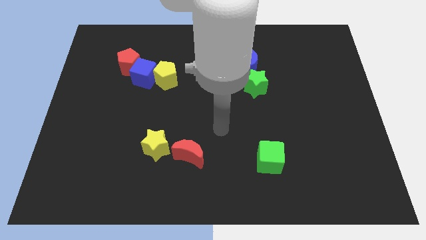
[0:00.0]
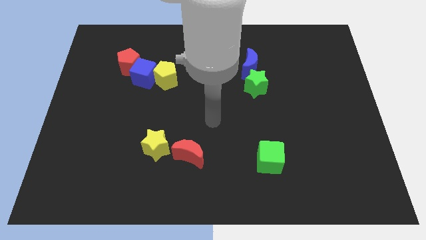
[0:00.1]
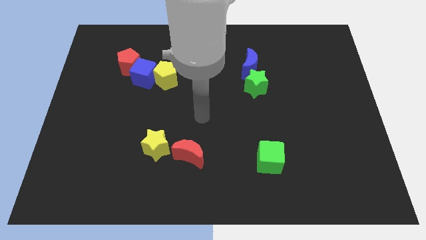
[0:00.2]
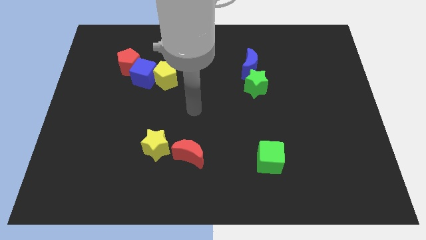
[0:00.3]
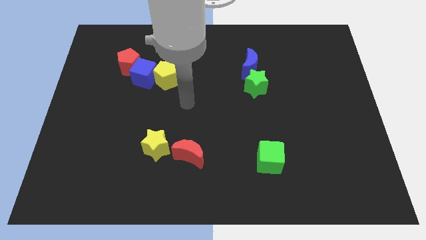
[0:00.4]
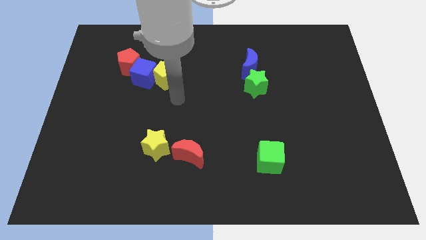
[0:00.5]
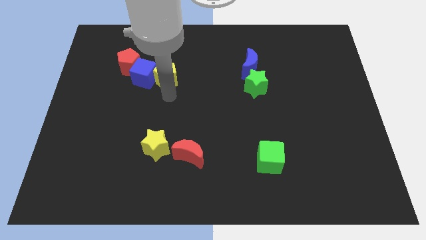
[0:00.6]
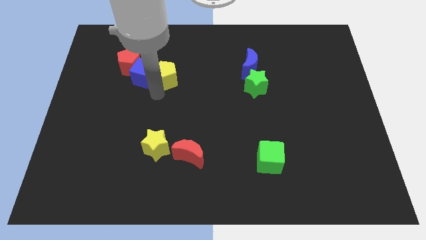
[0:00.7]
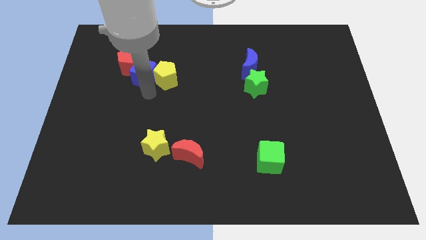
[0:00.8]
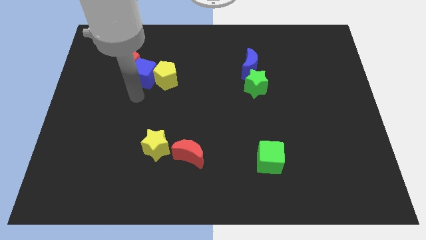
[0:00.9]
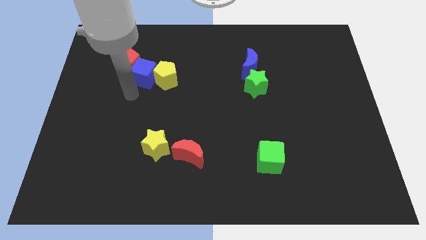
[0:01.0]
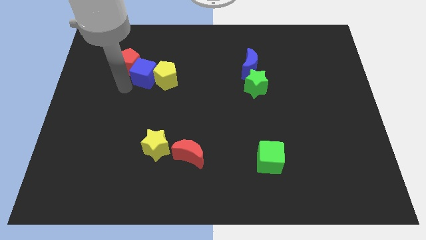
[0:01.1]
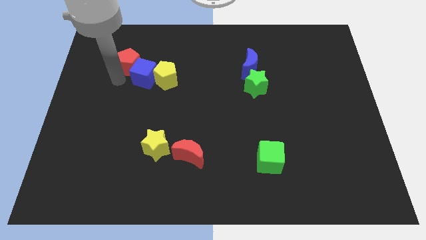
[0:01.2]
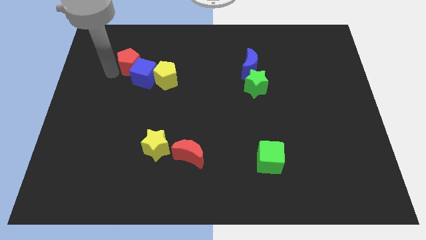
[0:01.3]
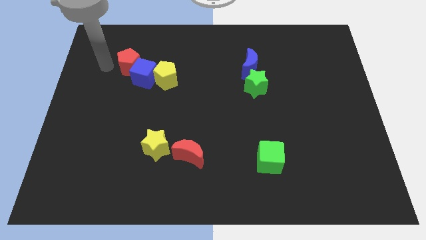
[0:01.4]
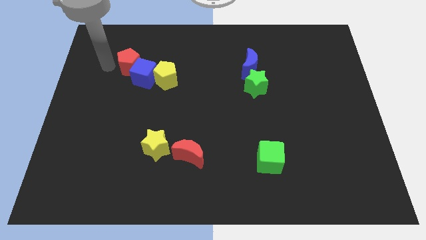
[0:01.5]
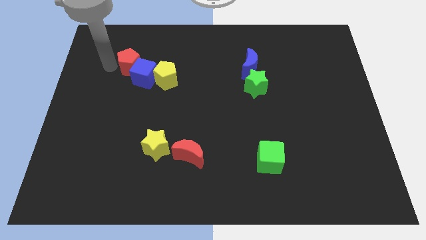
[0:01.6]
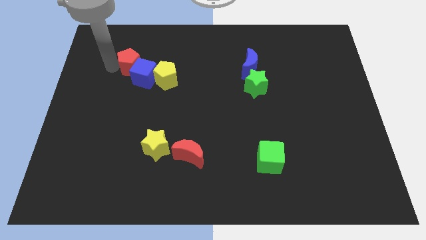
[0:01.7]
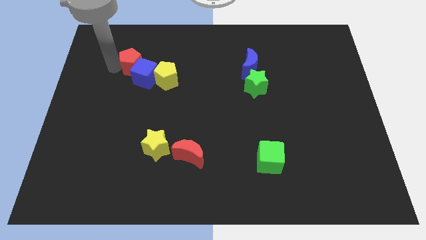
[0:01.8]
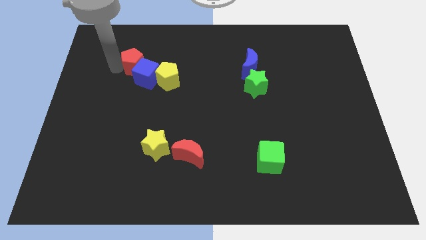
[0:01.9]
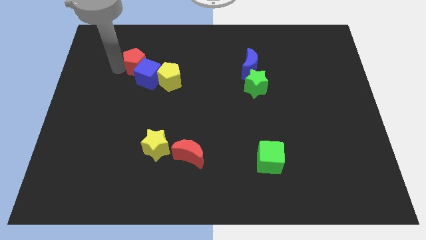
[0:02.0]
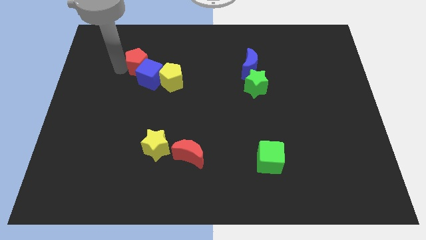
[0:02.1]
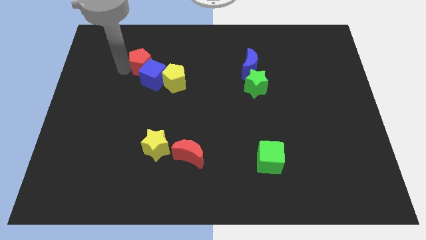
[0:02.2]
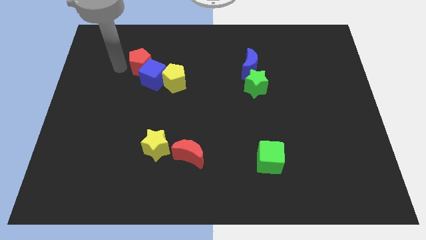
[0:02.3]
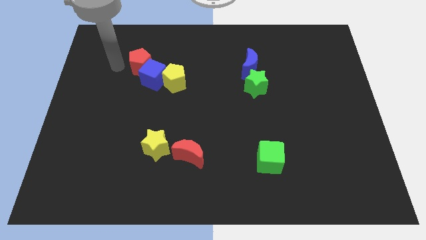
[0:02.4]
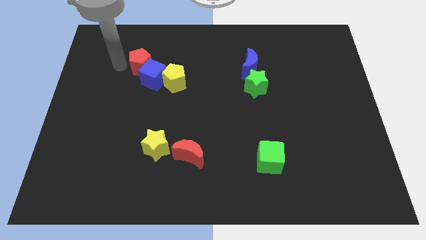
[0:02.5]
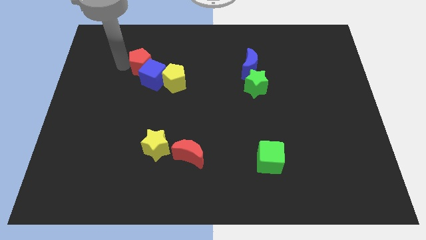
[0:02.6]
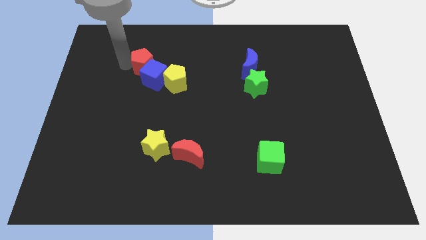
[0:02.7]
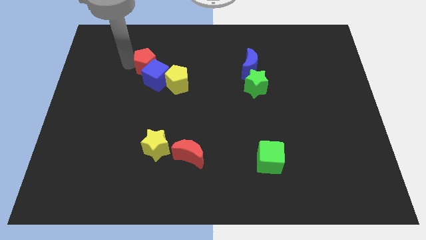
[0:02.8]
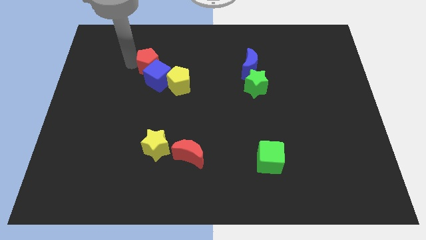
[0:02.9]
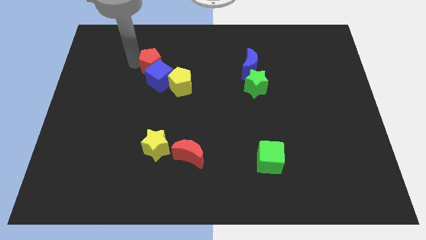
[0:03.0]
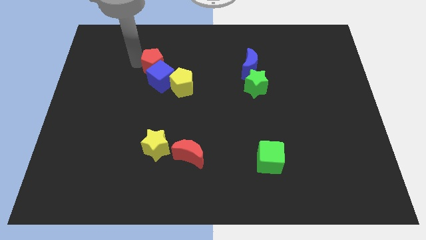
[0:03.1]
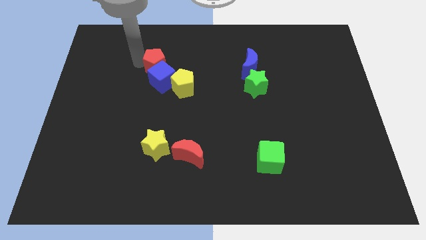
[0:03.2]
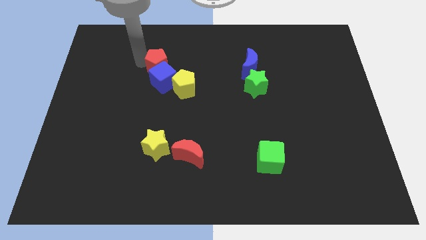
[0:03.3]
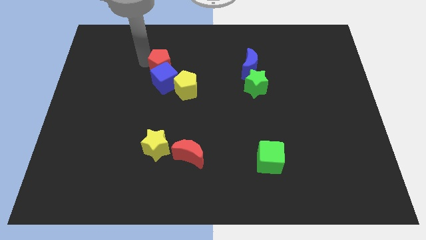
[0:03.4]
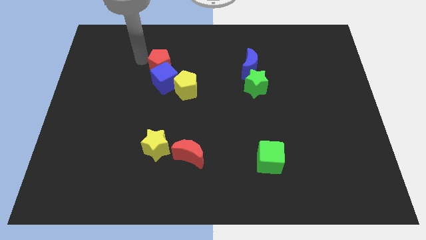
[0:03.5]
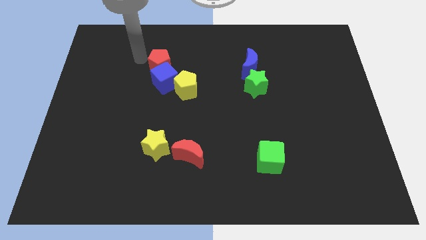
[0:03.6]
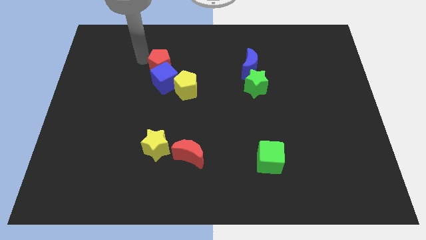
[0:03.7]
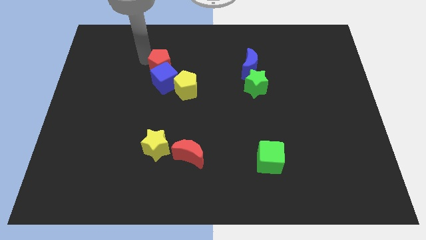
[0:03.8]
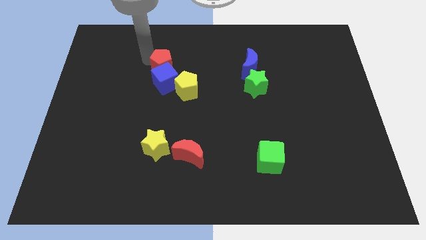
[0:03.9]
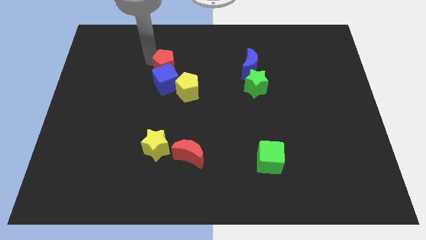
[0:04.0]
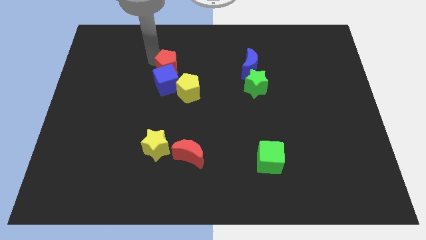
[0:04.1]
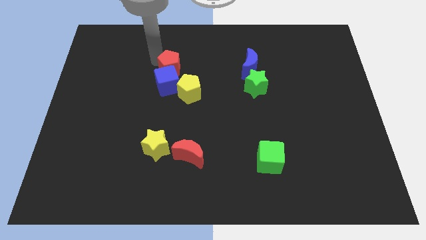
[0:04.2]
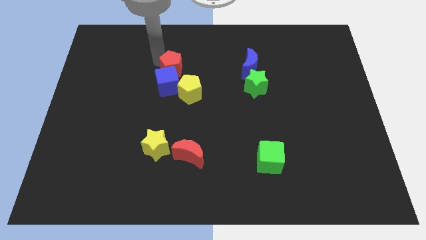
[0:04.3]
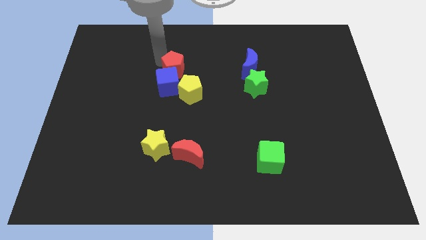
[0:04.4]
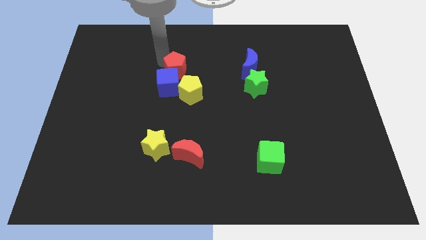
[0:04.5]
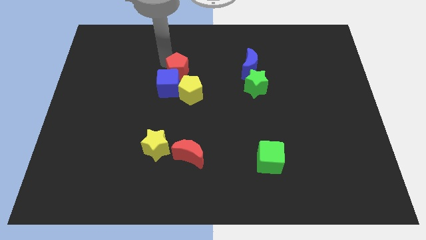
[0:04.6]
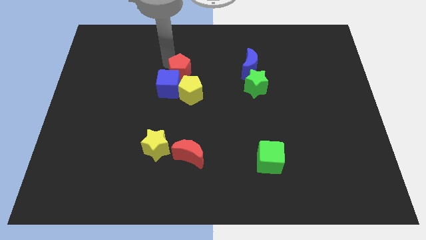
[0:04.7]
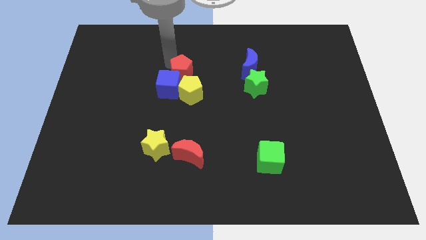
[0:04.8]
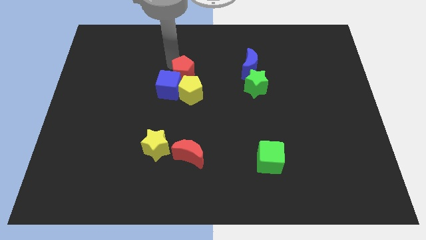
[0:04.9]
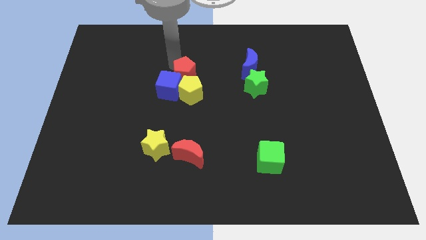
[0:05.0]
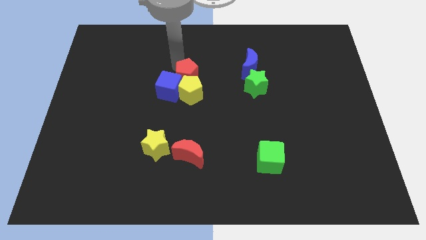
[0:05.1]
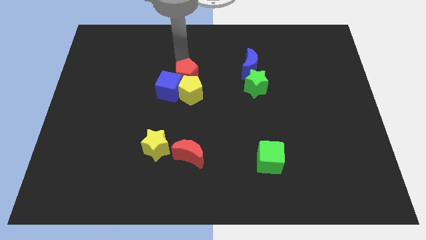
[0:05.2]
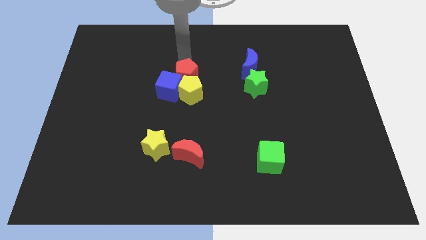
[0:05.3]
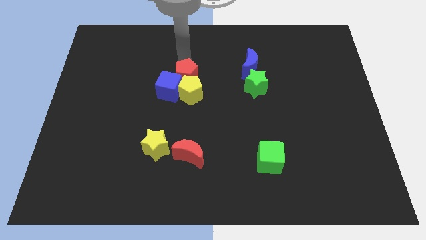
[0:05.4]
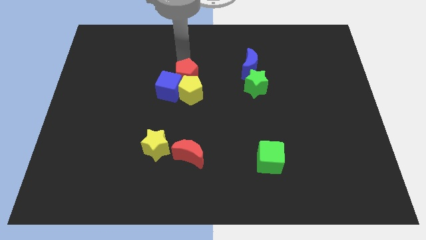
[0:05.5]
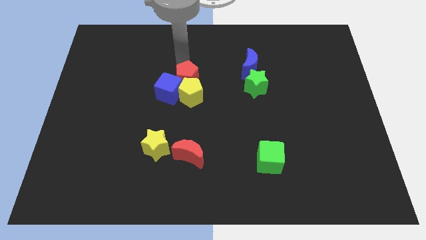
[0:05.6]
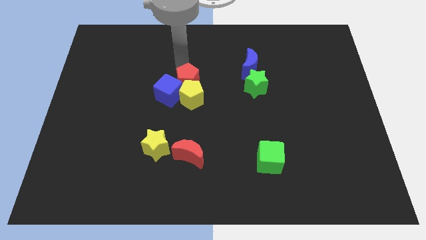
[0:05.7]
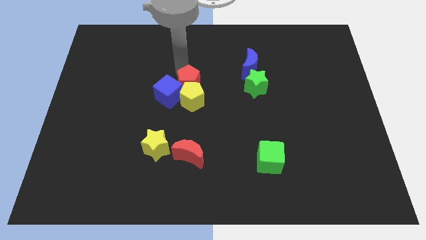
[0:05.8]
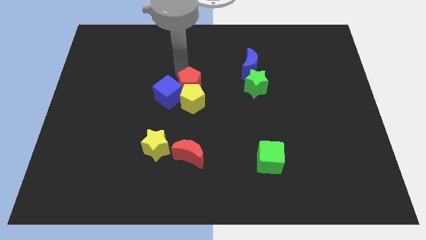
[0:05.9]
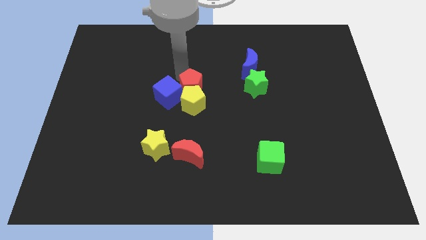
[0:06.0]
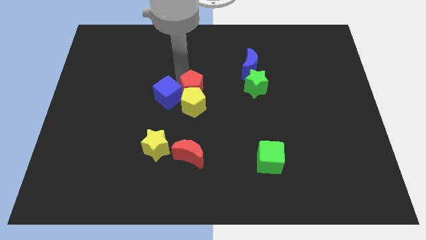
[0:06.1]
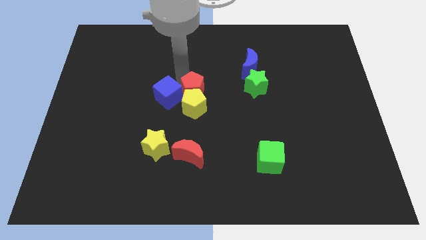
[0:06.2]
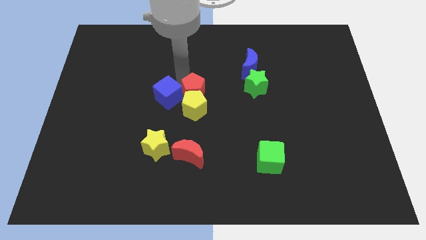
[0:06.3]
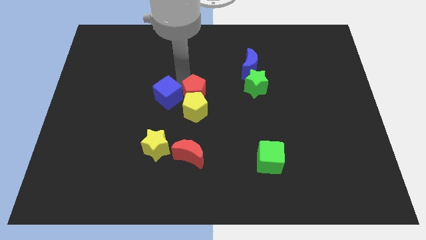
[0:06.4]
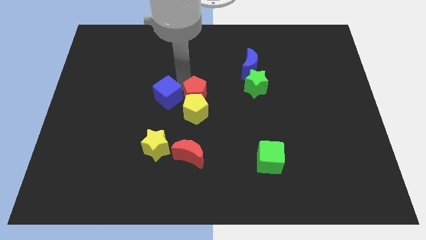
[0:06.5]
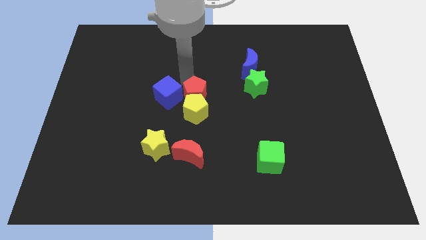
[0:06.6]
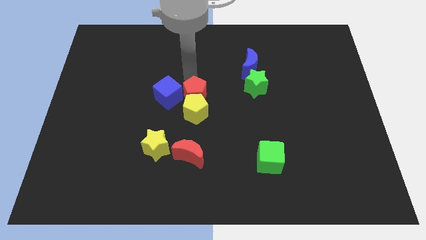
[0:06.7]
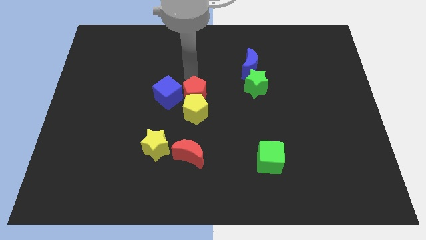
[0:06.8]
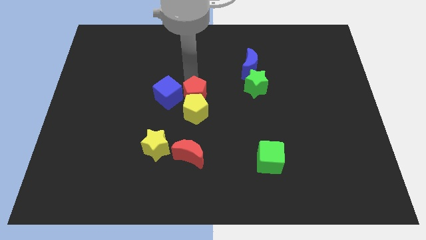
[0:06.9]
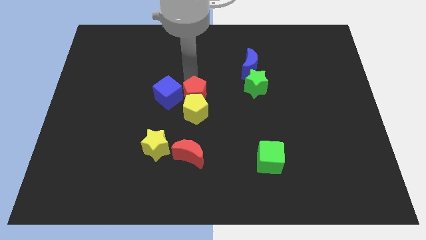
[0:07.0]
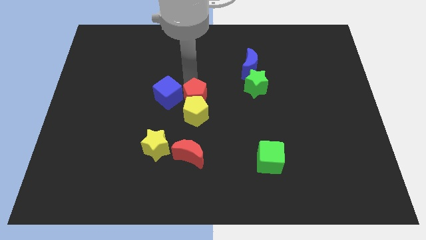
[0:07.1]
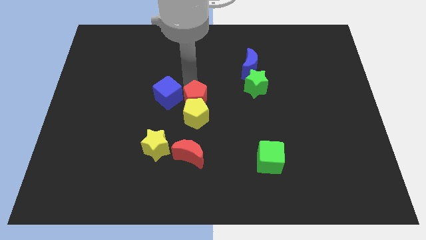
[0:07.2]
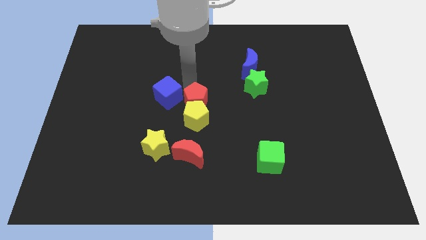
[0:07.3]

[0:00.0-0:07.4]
move the red pentagon diagonally down and right

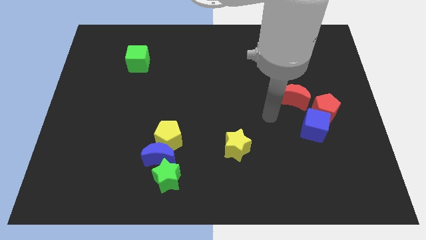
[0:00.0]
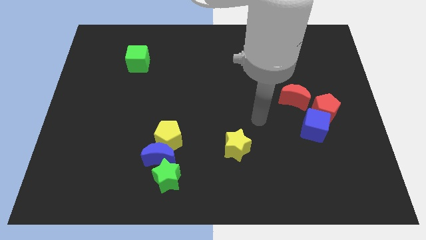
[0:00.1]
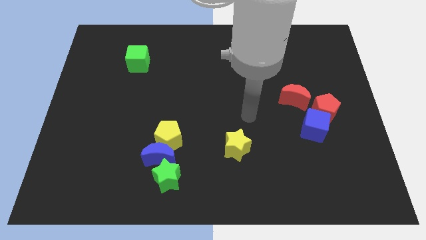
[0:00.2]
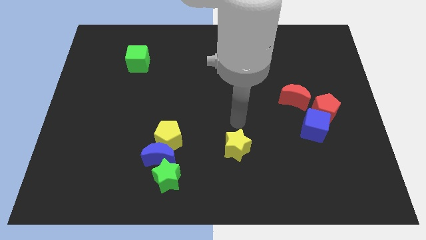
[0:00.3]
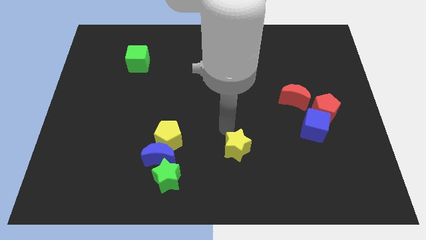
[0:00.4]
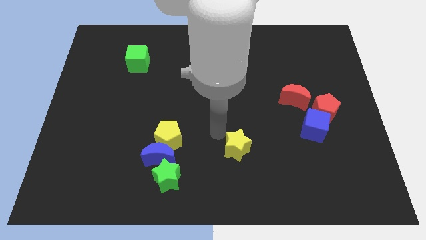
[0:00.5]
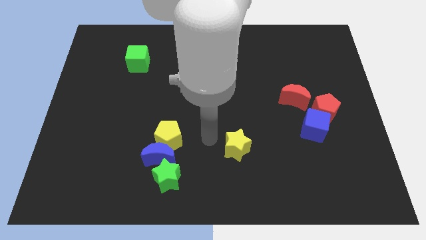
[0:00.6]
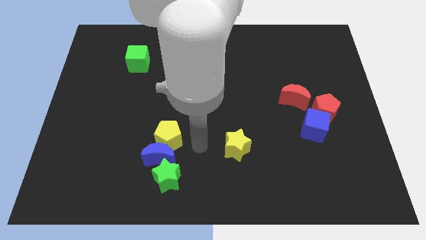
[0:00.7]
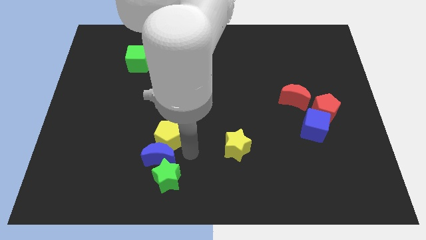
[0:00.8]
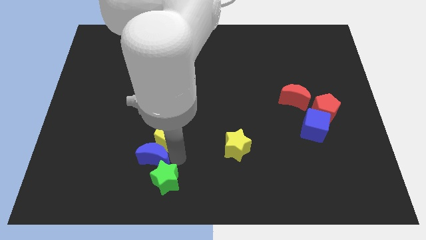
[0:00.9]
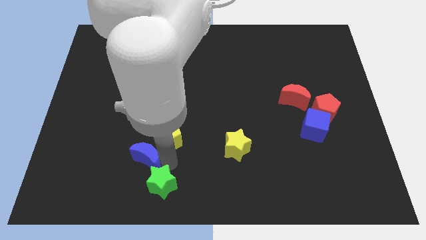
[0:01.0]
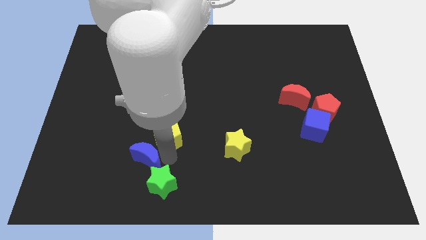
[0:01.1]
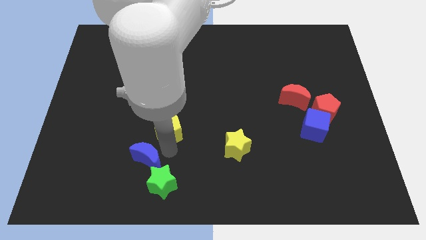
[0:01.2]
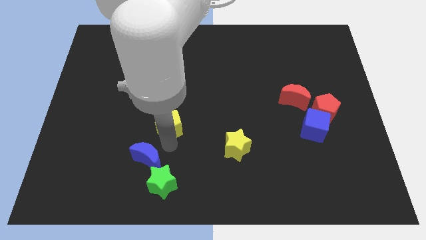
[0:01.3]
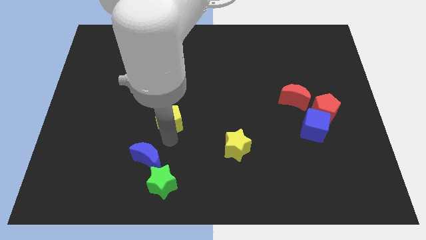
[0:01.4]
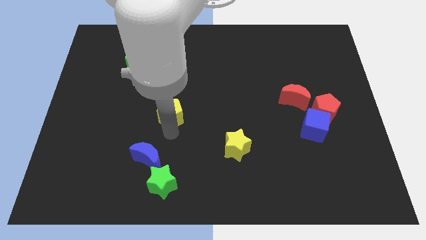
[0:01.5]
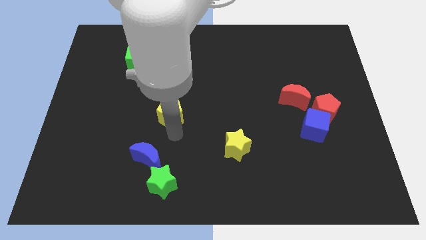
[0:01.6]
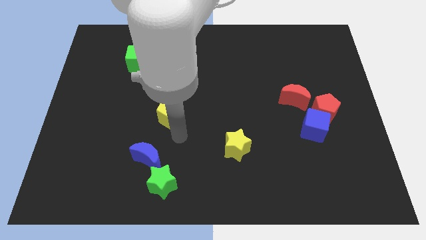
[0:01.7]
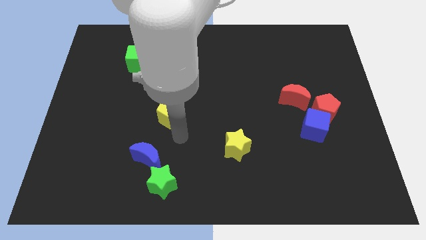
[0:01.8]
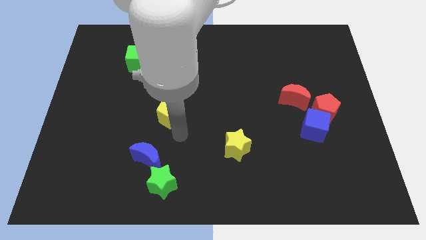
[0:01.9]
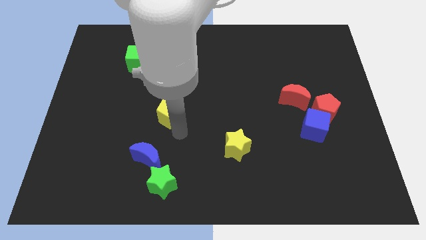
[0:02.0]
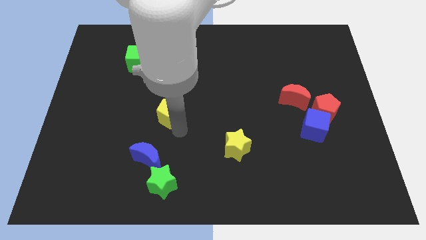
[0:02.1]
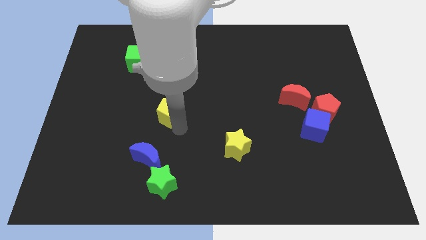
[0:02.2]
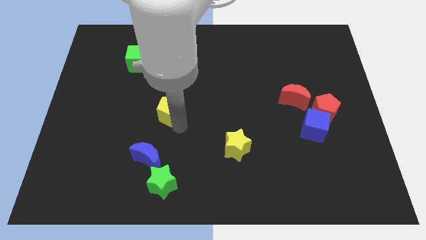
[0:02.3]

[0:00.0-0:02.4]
slide the yellow pentagon somewhat upwards
